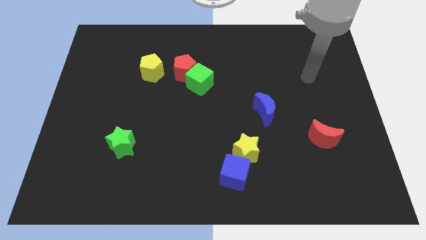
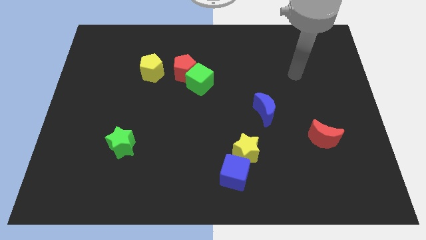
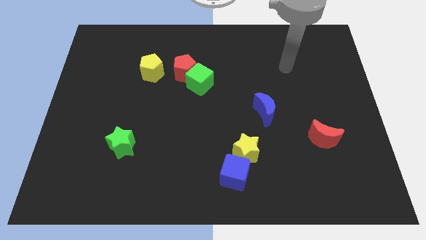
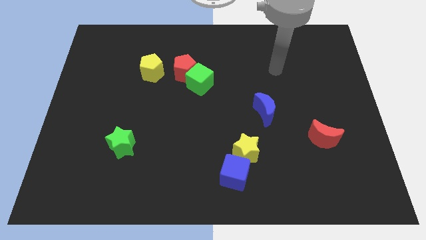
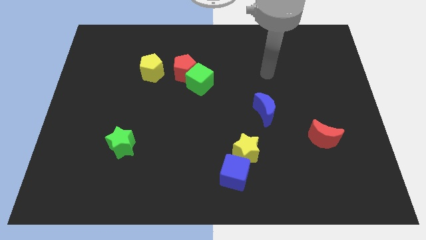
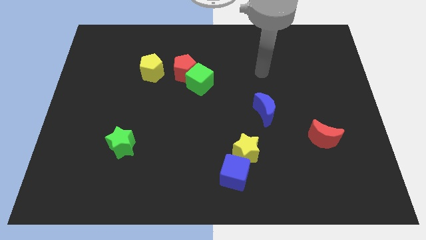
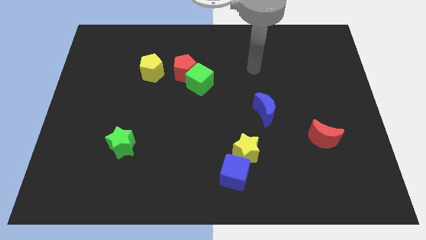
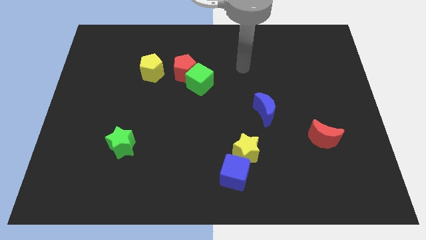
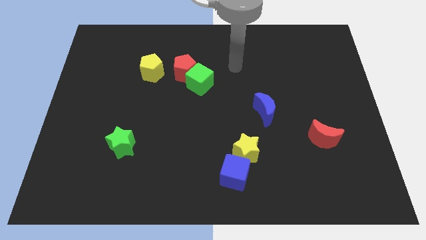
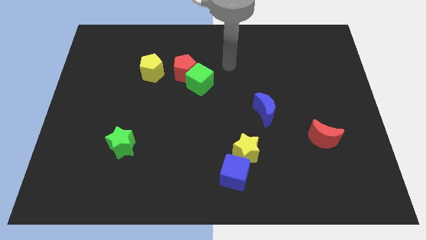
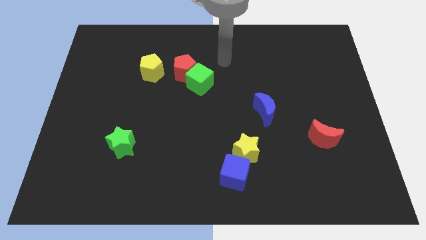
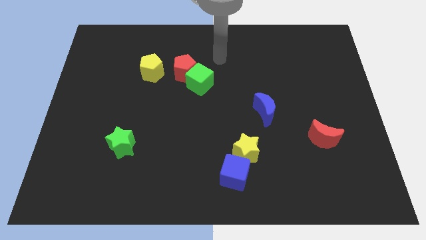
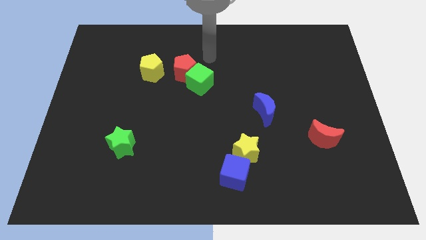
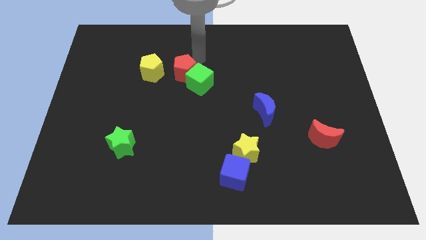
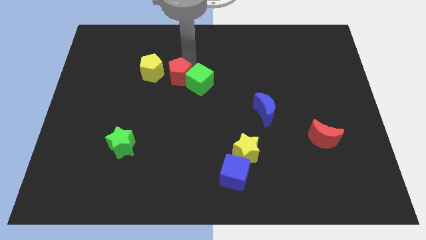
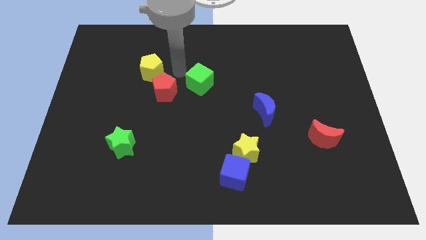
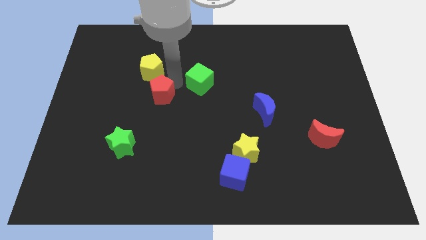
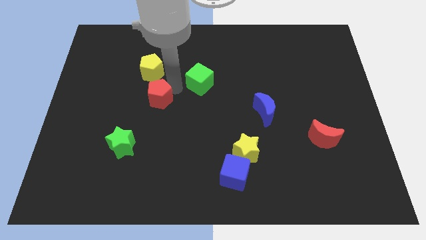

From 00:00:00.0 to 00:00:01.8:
separate the green cube from the red pentagon

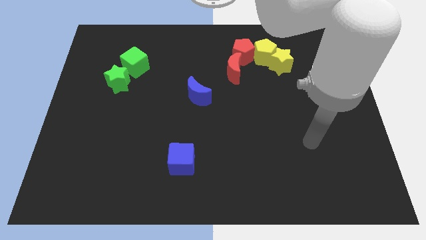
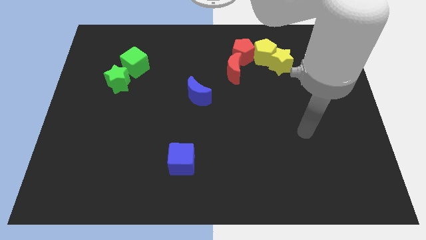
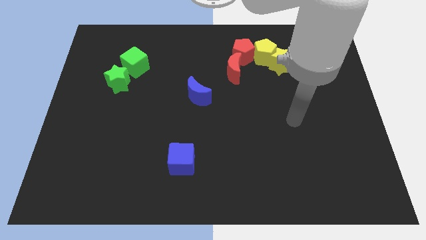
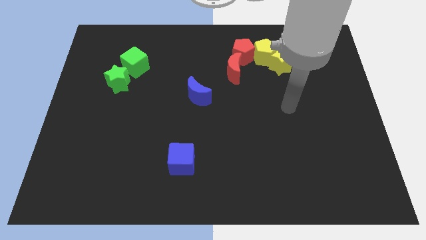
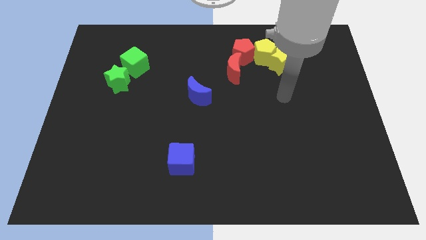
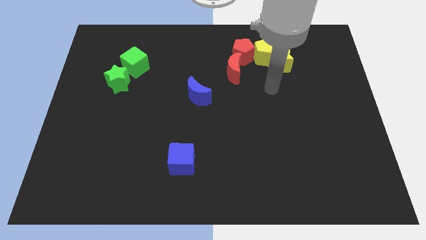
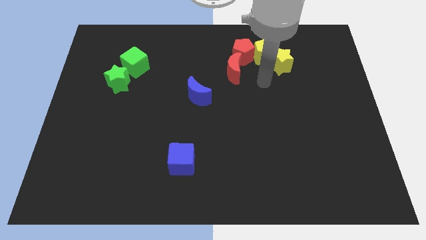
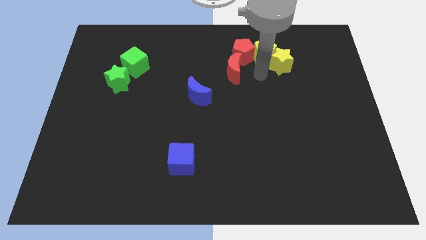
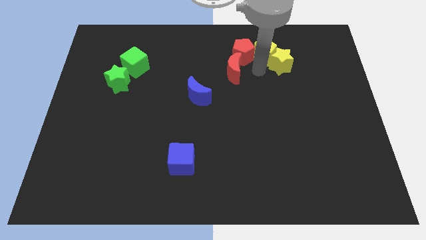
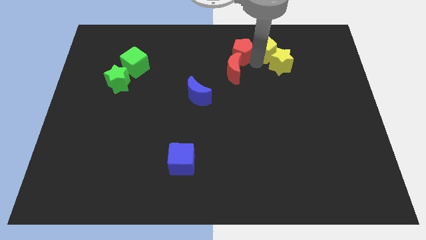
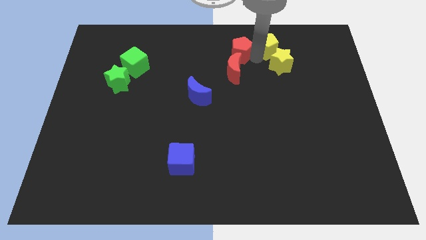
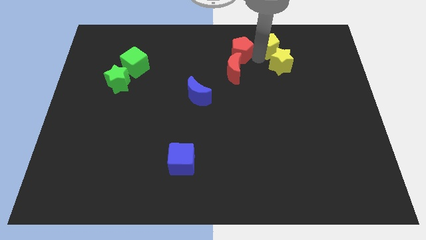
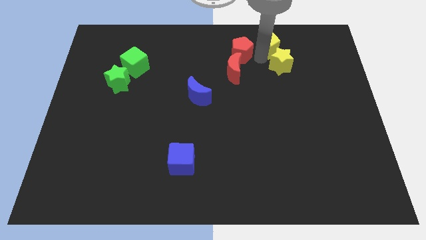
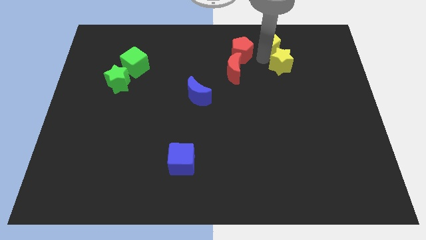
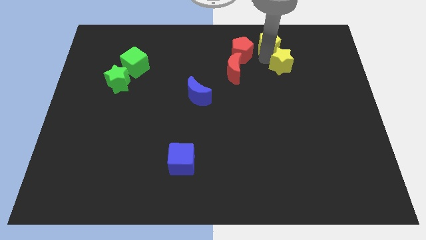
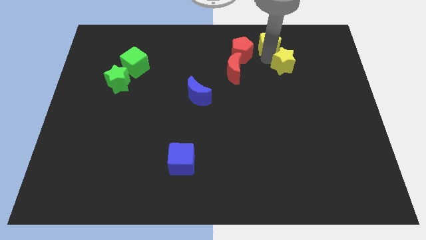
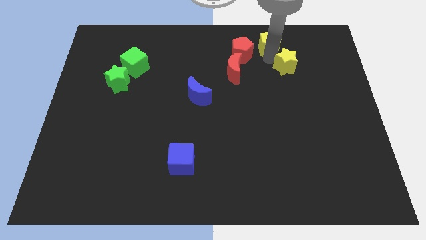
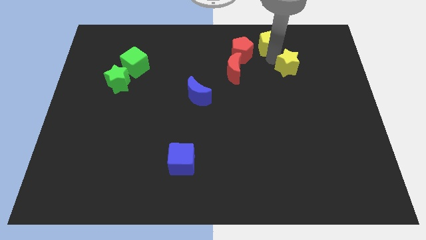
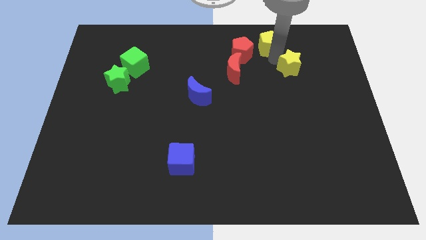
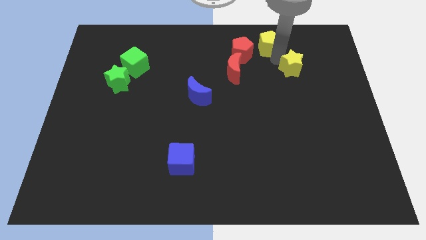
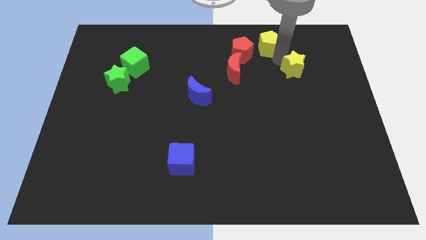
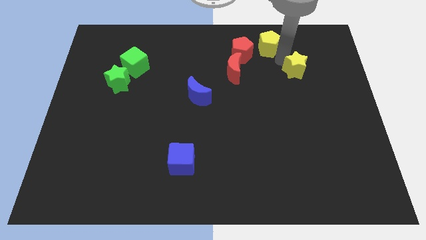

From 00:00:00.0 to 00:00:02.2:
pull the yellow star apart from the yellow pentagon

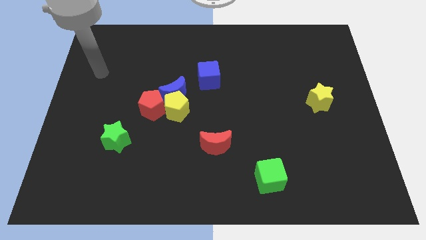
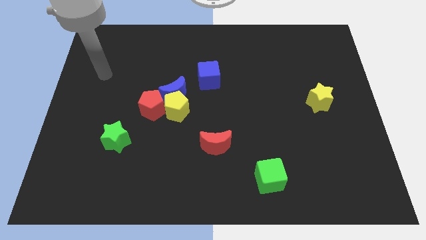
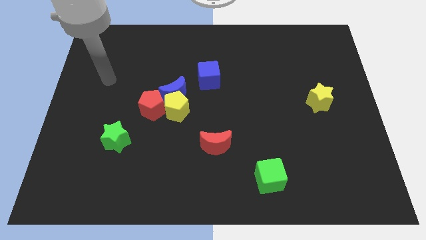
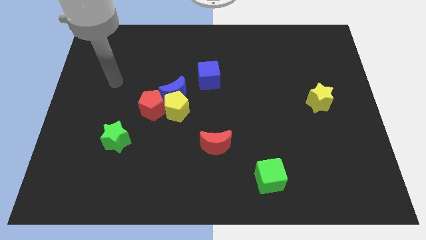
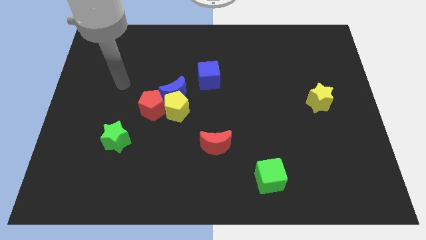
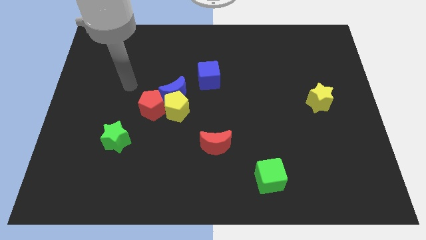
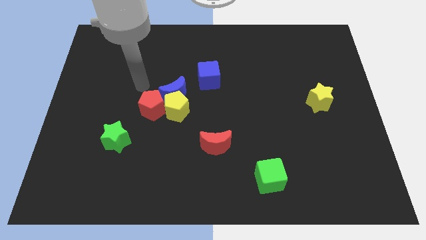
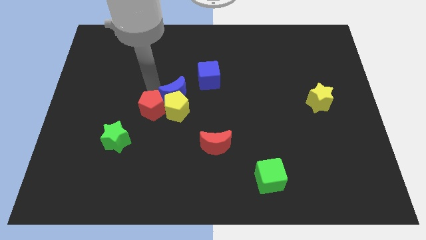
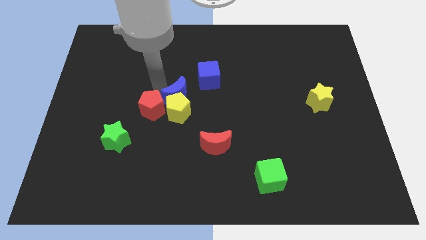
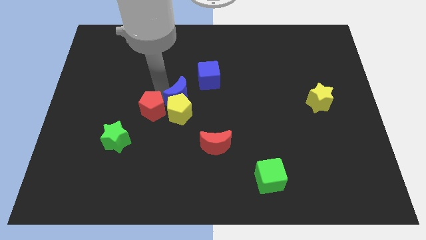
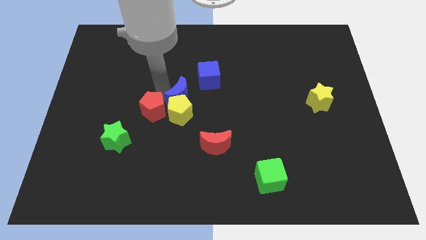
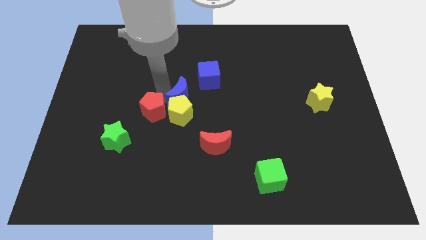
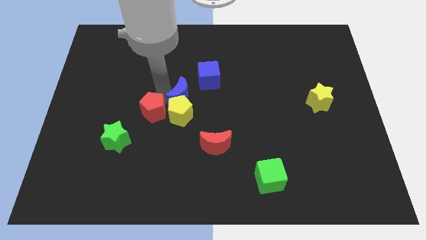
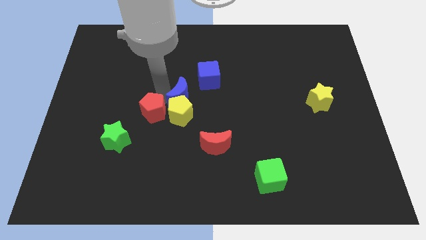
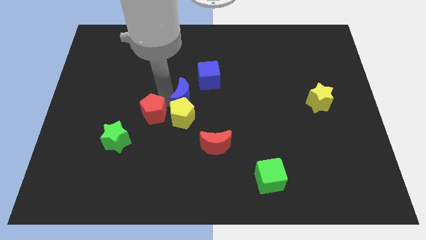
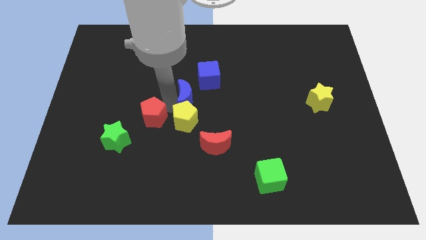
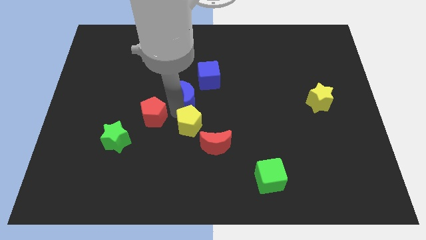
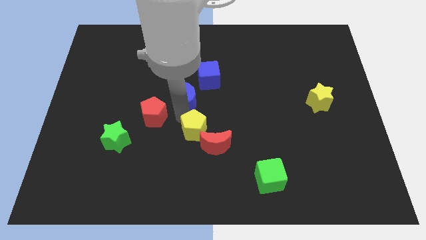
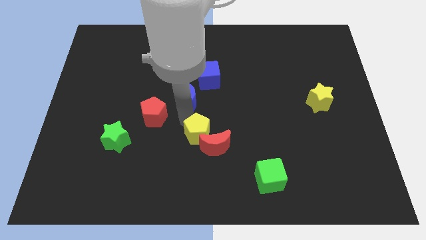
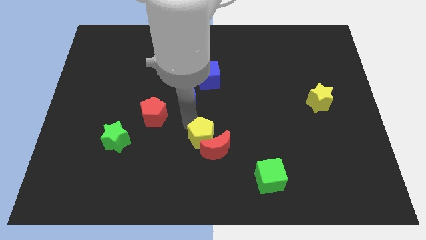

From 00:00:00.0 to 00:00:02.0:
pull the yellow pentagon apart from the blue moon and red pentagon

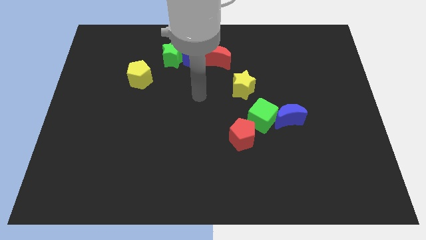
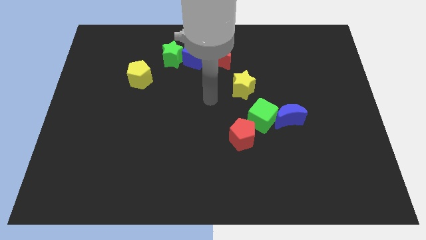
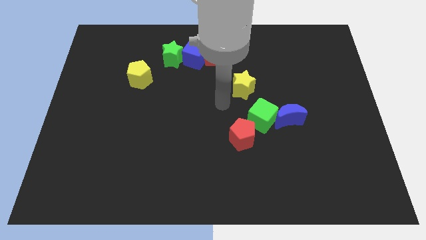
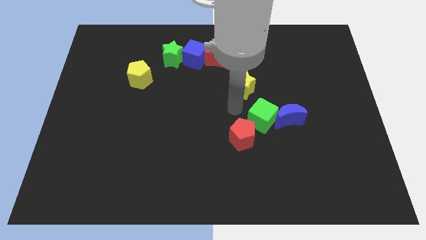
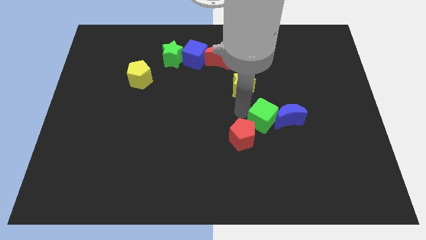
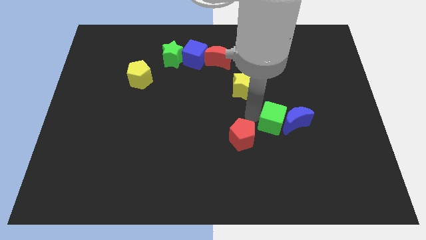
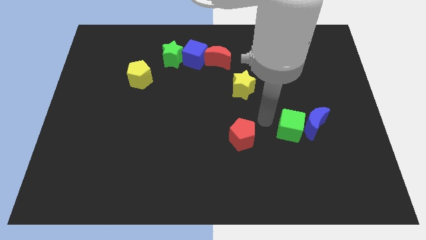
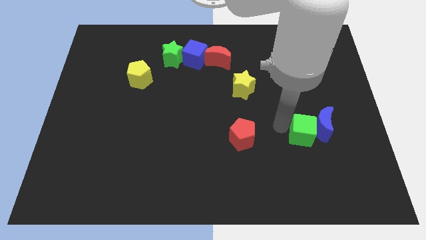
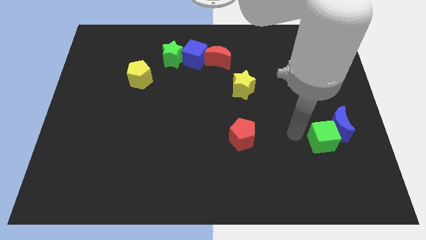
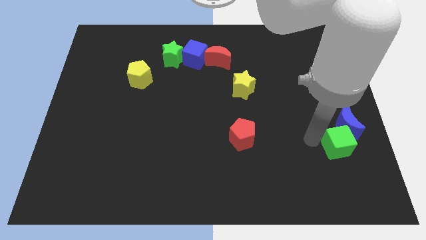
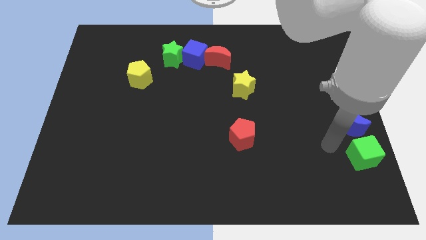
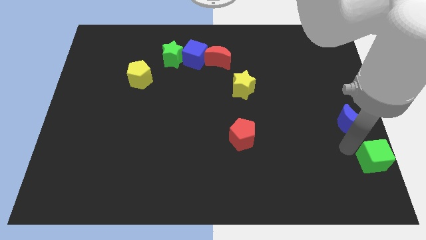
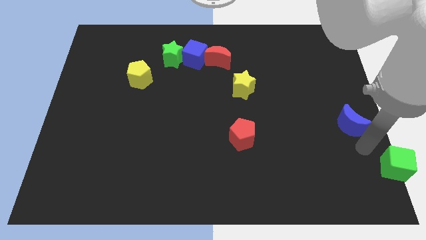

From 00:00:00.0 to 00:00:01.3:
move the blue moon away from the green cube

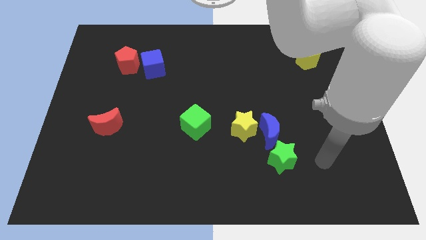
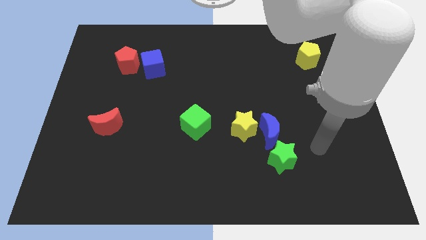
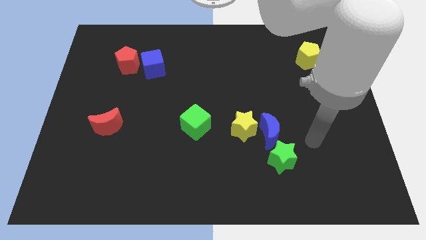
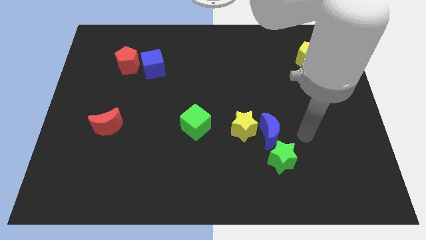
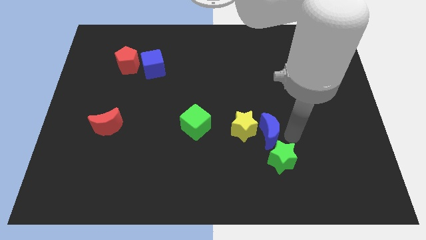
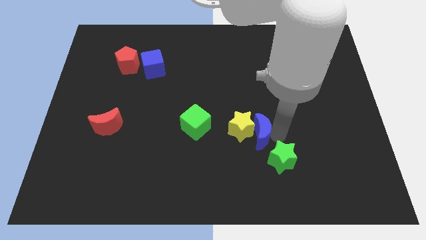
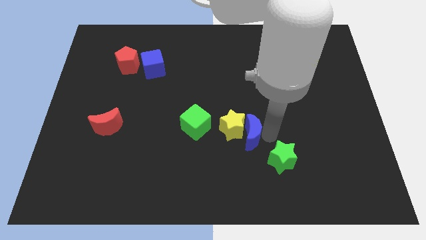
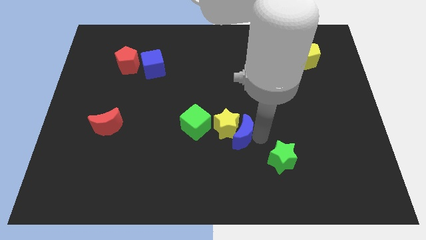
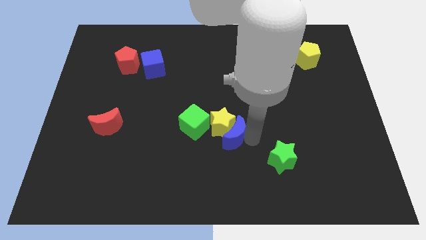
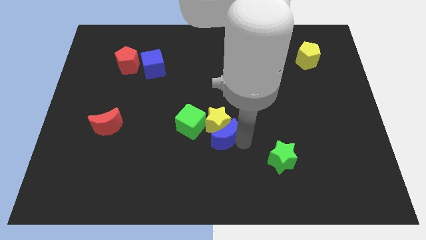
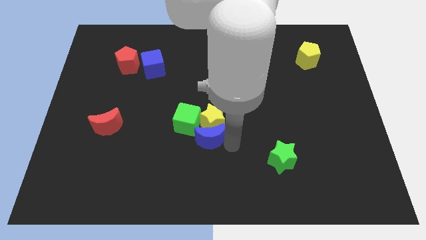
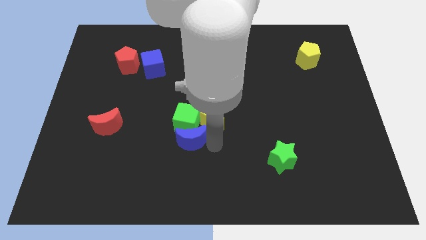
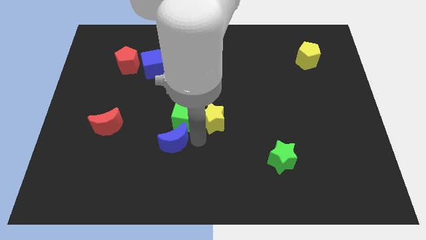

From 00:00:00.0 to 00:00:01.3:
pull the yellow star apart from the blue moon

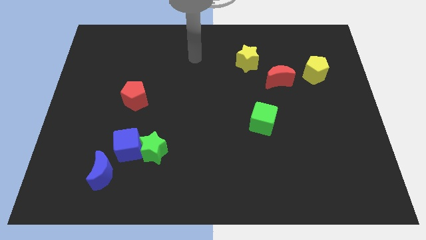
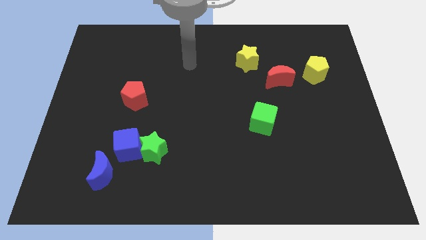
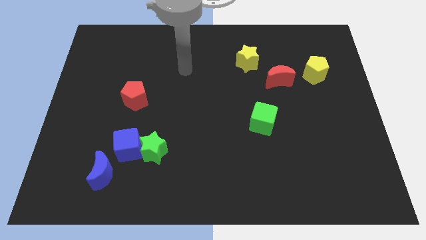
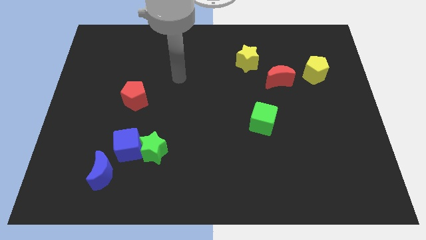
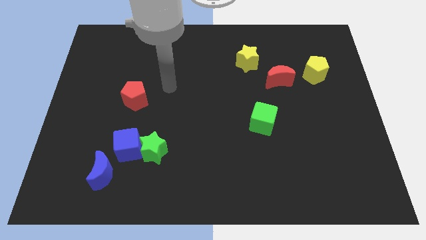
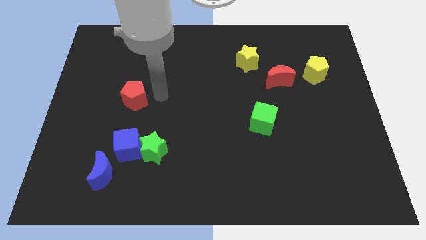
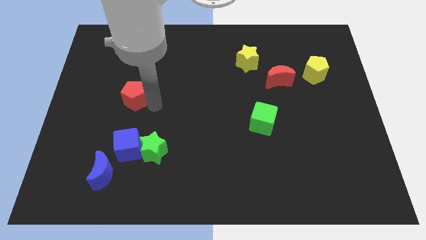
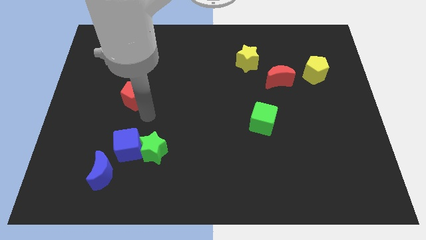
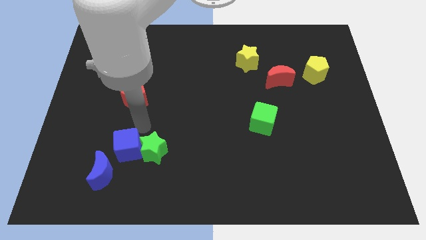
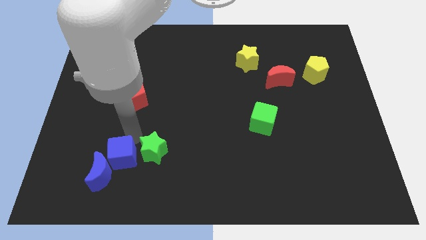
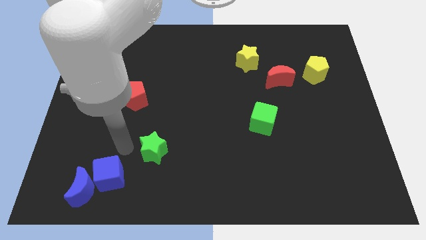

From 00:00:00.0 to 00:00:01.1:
move the green star away from the blue cube
